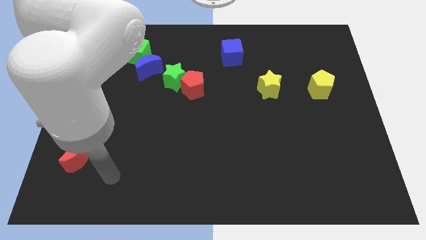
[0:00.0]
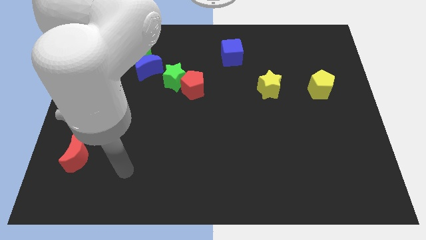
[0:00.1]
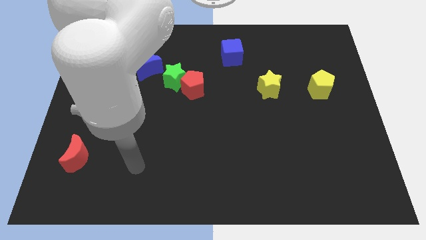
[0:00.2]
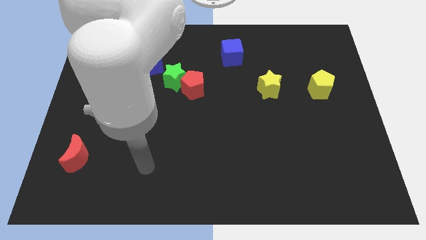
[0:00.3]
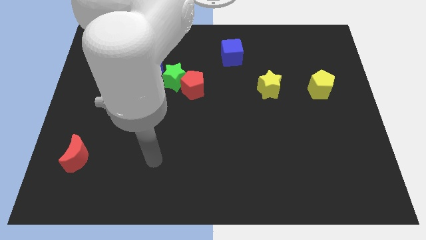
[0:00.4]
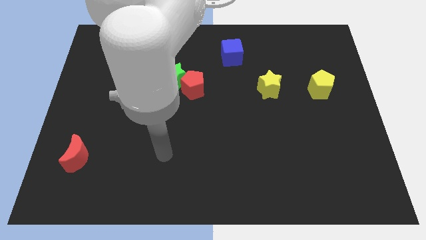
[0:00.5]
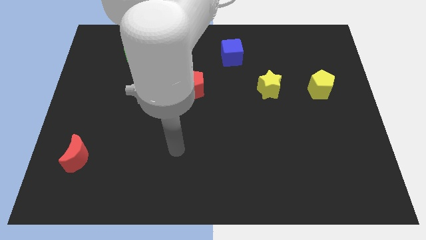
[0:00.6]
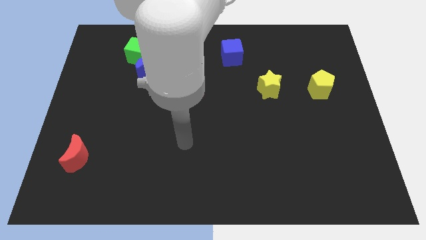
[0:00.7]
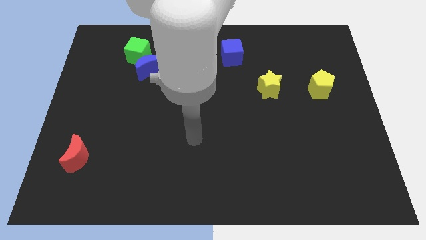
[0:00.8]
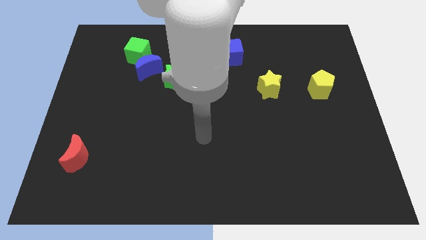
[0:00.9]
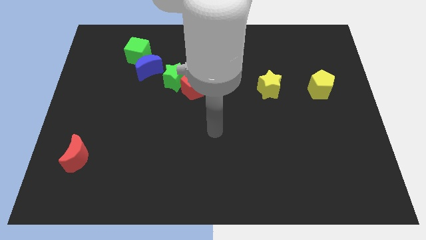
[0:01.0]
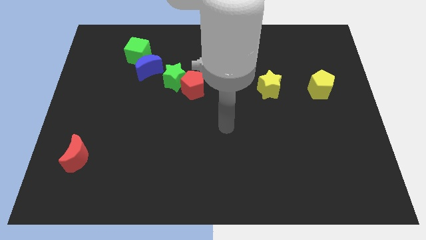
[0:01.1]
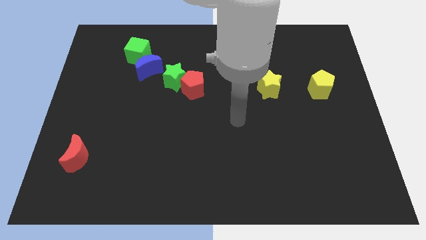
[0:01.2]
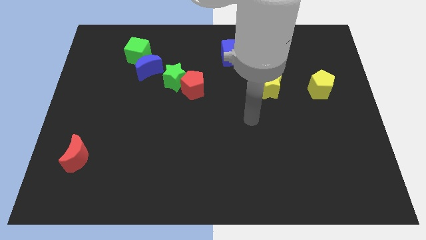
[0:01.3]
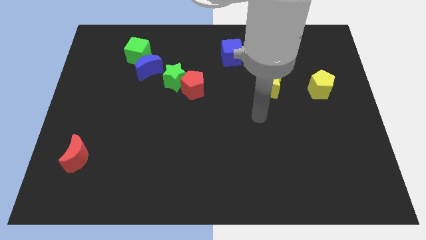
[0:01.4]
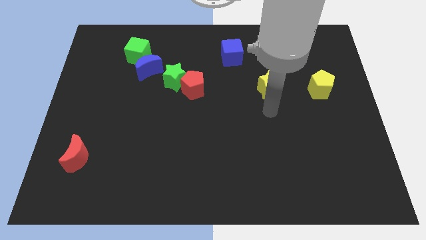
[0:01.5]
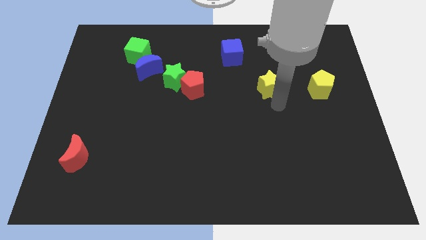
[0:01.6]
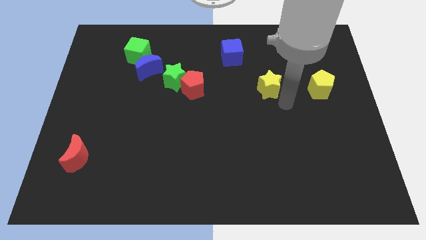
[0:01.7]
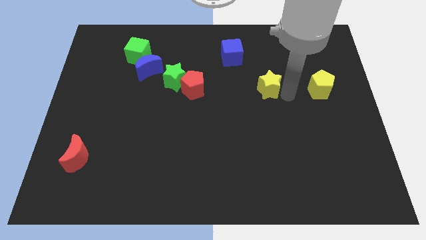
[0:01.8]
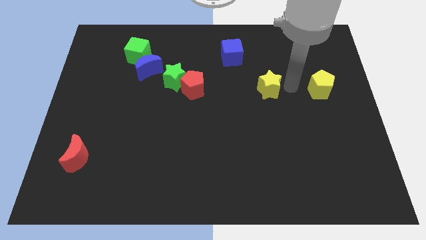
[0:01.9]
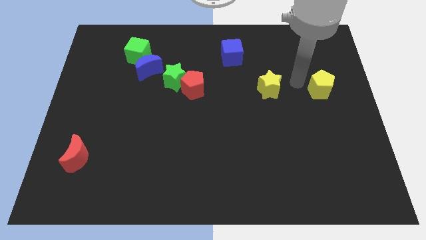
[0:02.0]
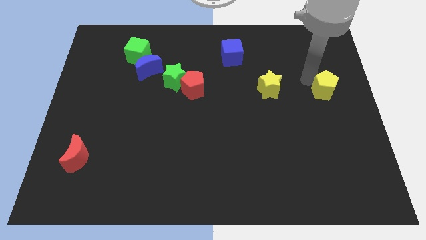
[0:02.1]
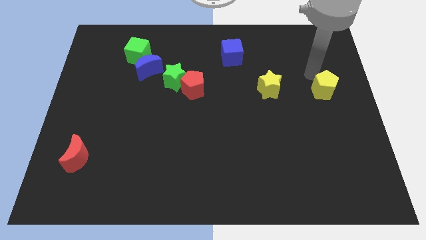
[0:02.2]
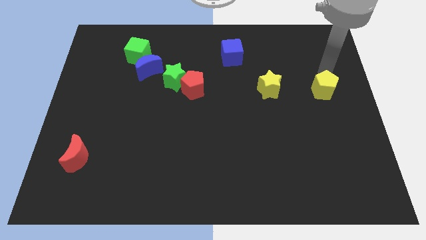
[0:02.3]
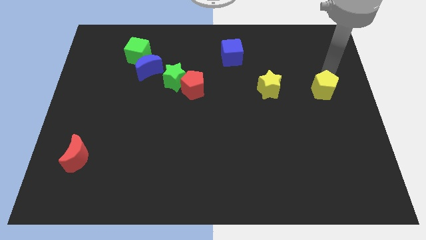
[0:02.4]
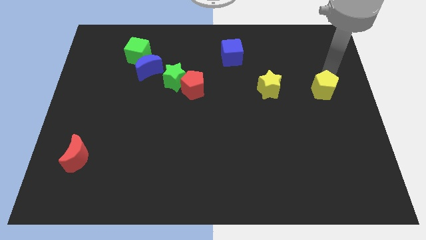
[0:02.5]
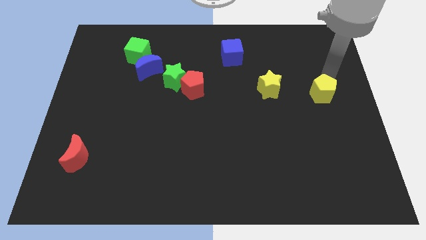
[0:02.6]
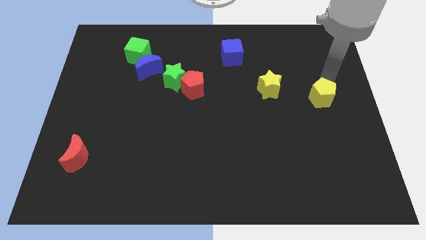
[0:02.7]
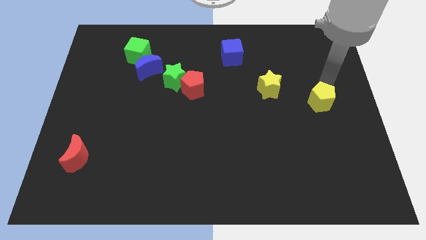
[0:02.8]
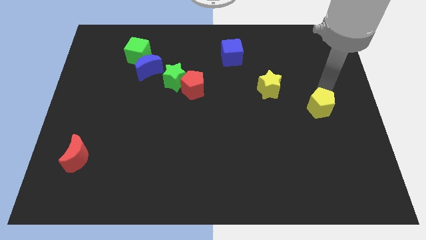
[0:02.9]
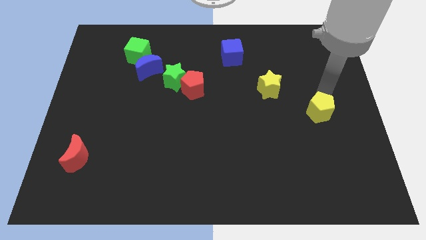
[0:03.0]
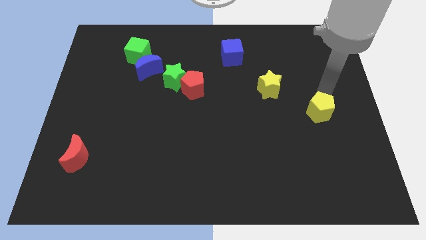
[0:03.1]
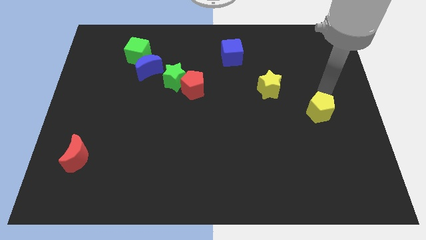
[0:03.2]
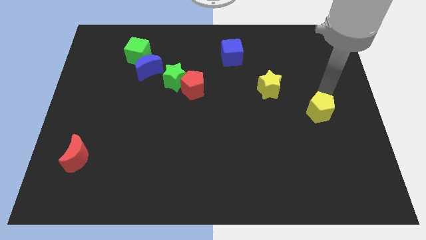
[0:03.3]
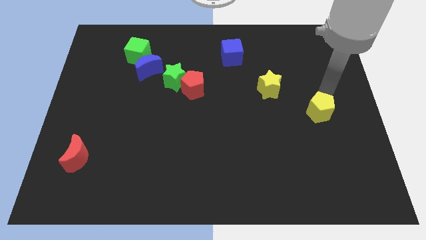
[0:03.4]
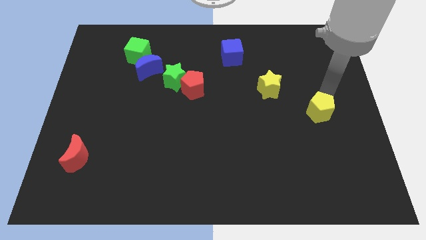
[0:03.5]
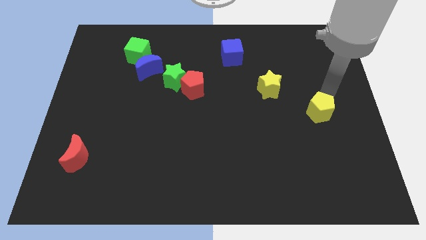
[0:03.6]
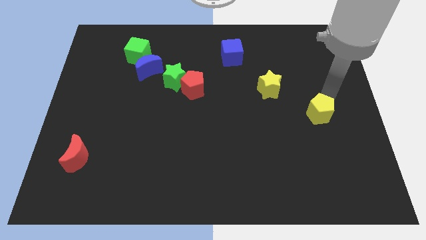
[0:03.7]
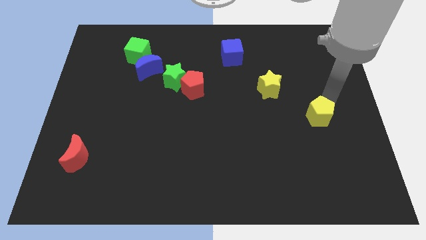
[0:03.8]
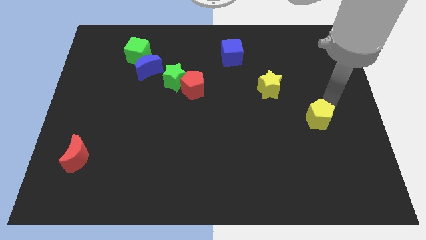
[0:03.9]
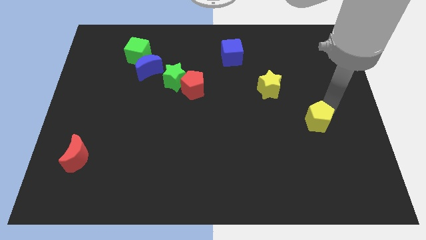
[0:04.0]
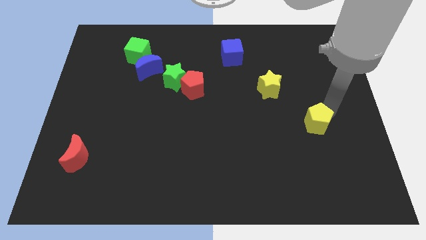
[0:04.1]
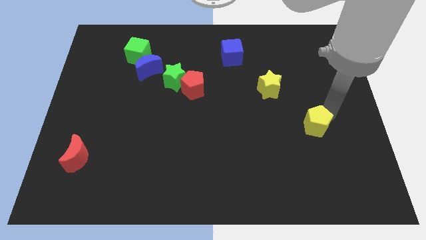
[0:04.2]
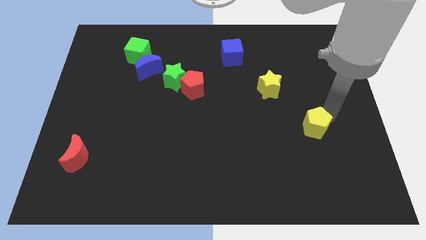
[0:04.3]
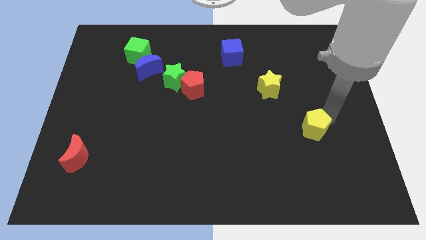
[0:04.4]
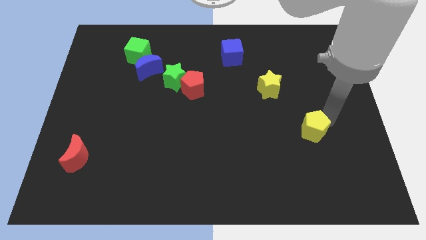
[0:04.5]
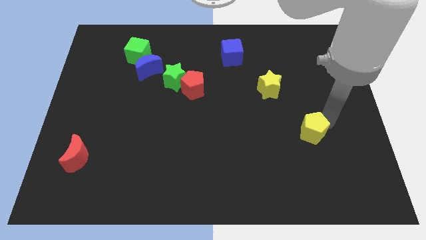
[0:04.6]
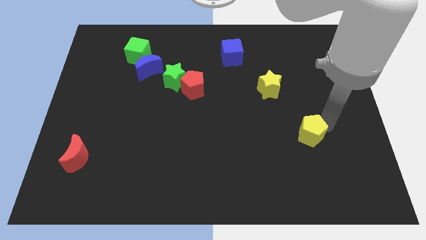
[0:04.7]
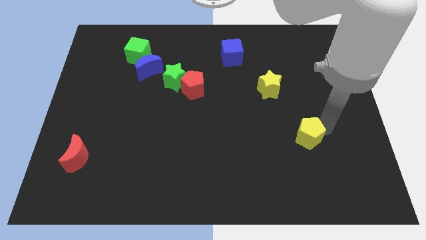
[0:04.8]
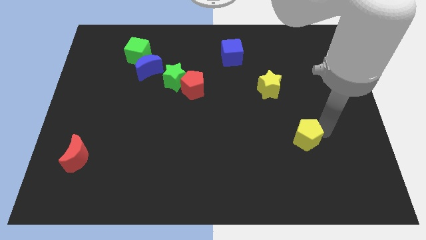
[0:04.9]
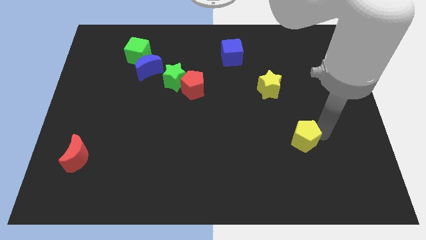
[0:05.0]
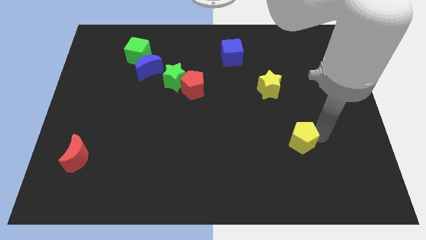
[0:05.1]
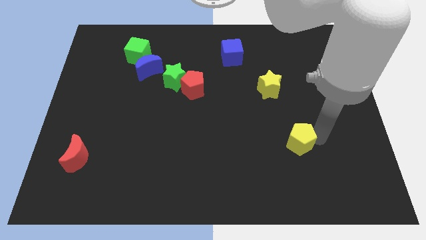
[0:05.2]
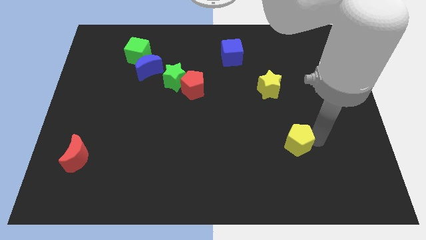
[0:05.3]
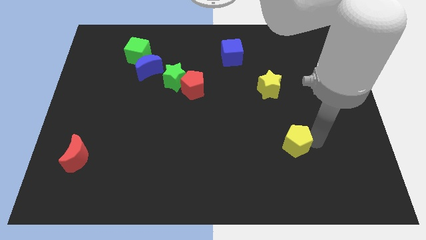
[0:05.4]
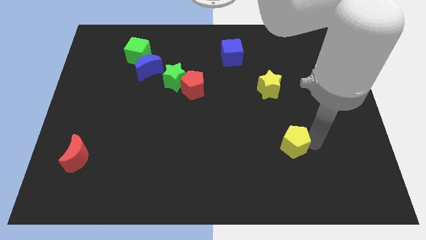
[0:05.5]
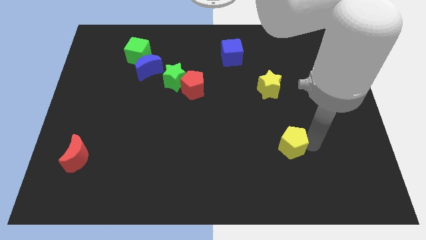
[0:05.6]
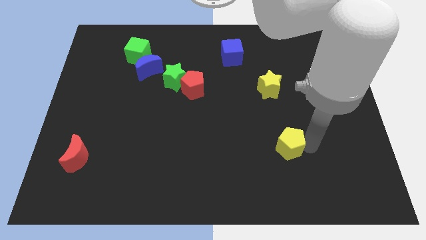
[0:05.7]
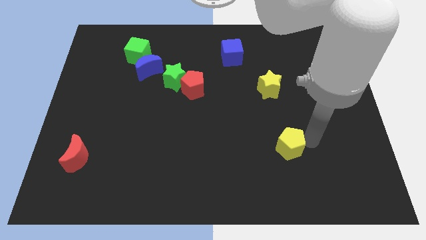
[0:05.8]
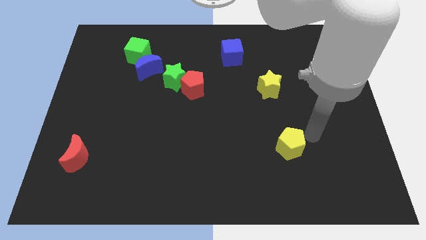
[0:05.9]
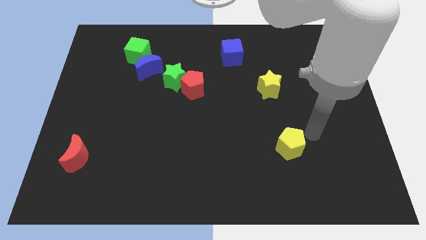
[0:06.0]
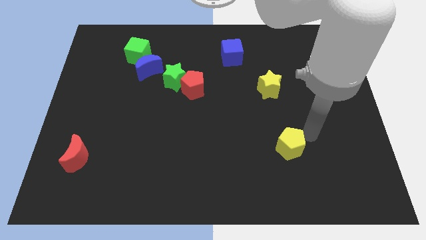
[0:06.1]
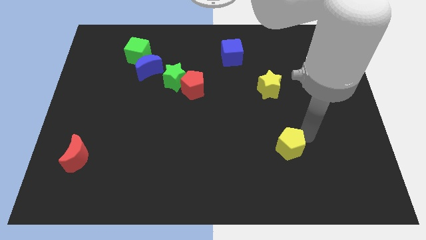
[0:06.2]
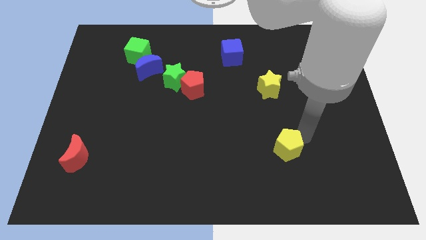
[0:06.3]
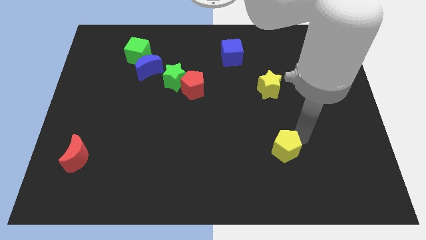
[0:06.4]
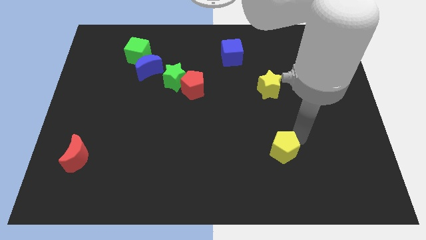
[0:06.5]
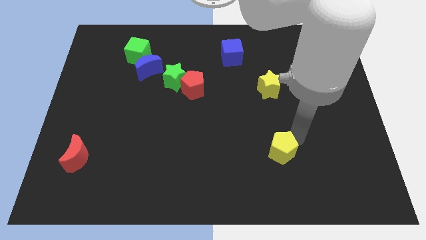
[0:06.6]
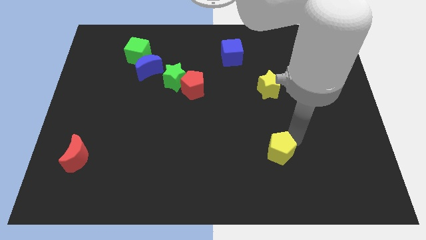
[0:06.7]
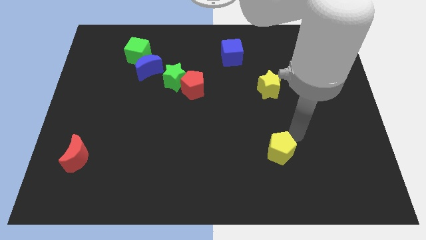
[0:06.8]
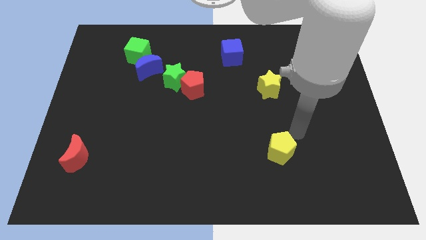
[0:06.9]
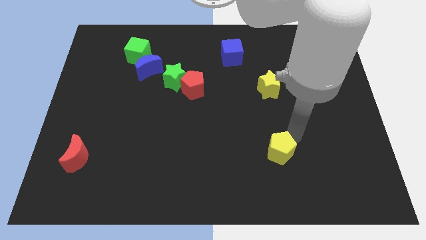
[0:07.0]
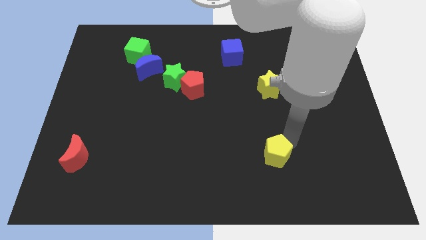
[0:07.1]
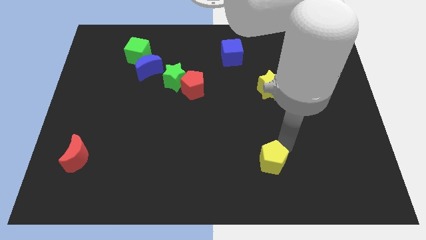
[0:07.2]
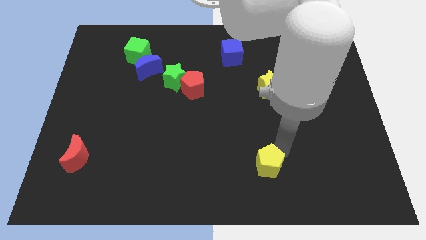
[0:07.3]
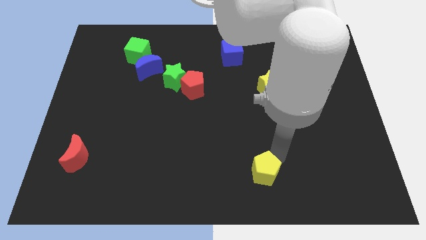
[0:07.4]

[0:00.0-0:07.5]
move the yellow pentagon to the bottom side
